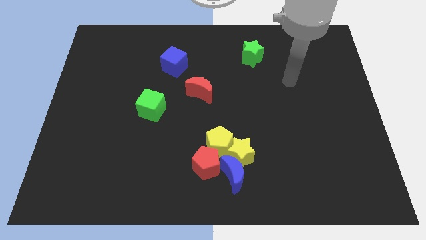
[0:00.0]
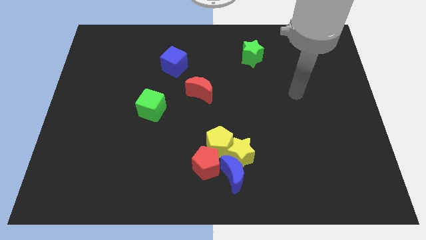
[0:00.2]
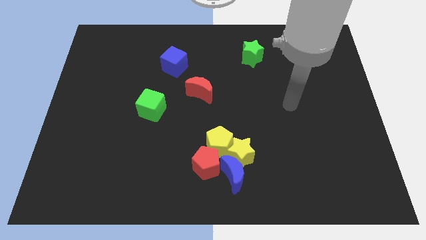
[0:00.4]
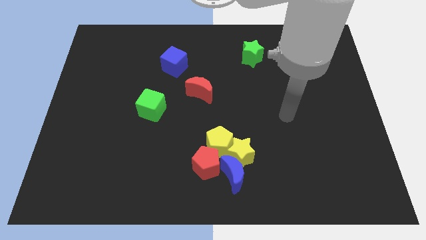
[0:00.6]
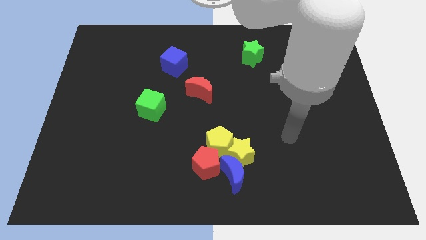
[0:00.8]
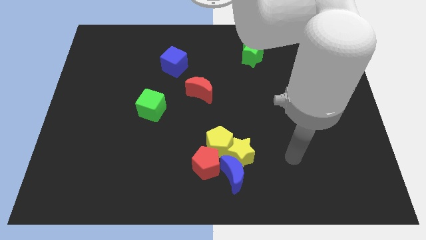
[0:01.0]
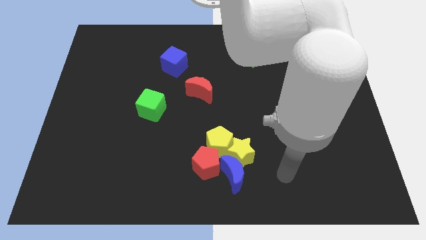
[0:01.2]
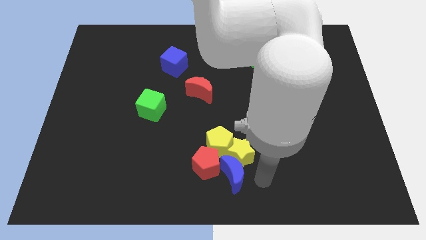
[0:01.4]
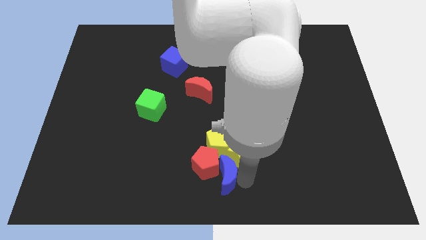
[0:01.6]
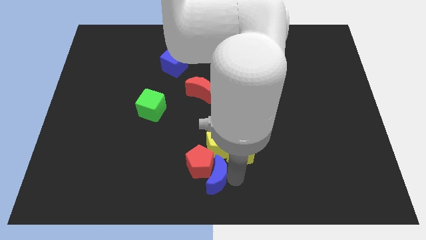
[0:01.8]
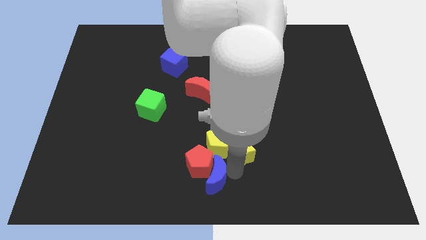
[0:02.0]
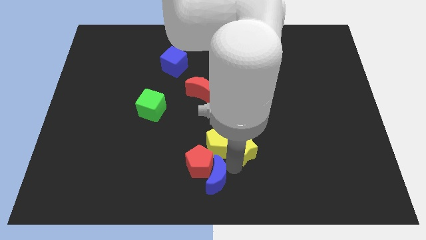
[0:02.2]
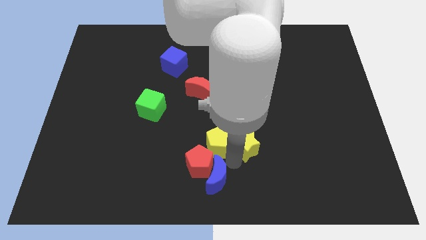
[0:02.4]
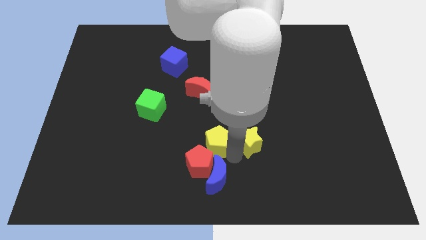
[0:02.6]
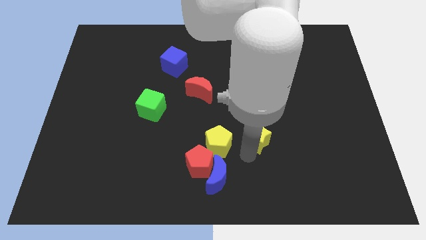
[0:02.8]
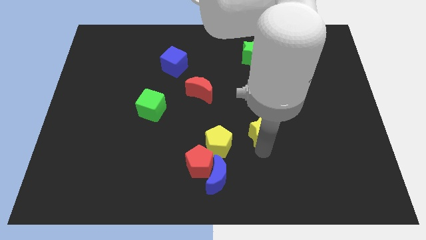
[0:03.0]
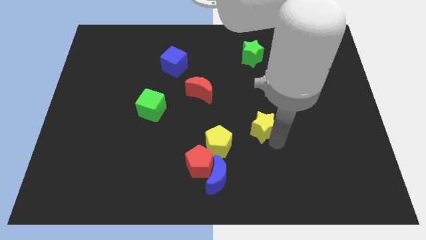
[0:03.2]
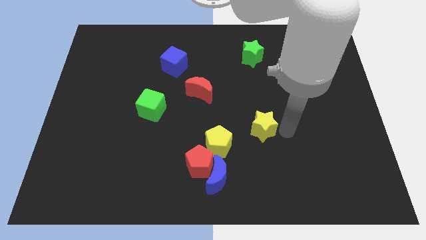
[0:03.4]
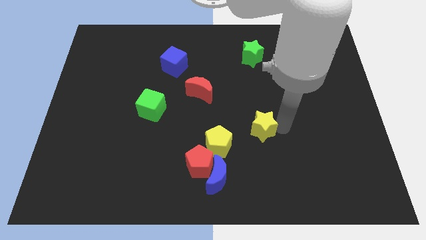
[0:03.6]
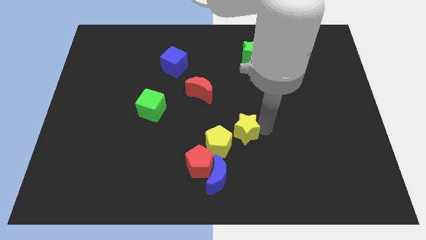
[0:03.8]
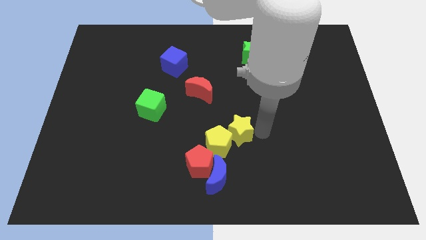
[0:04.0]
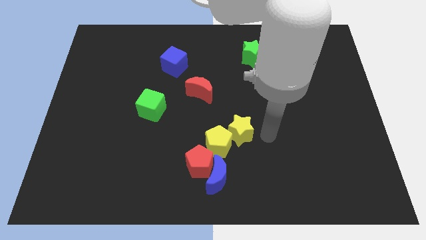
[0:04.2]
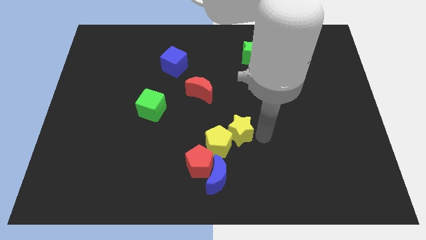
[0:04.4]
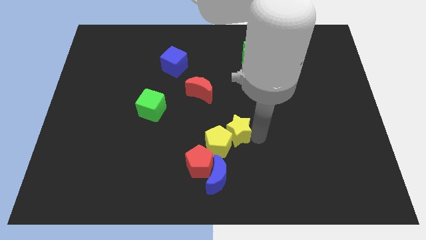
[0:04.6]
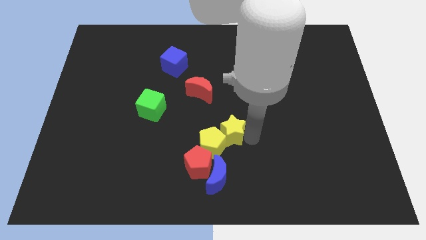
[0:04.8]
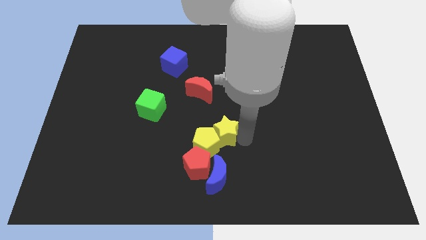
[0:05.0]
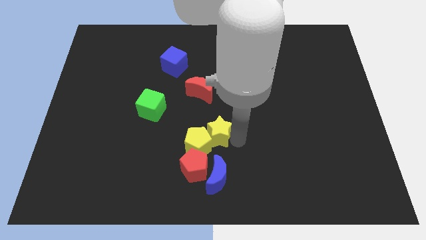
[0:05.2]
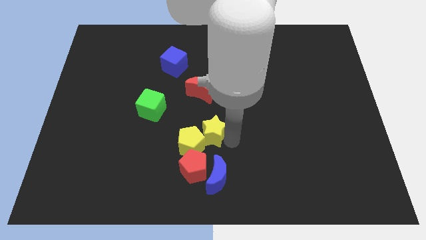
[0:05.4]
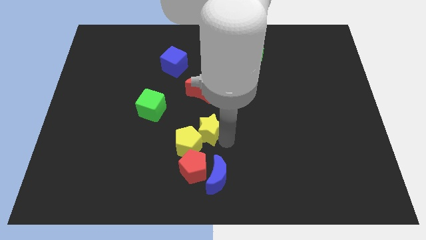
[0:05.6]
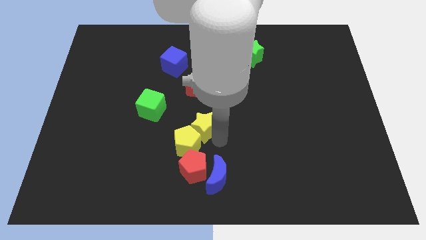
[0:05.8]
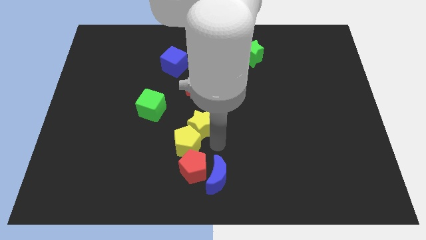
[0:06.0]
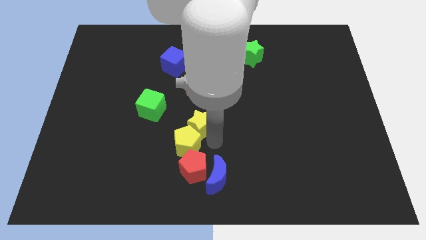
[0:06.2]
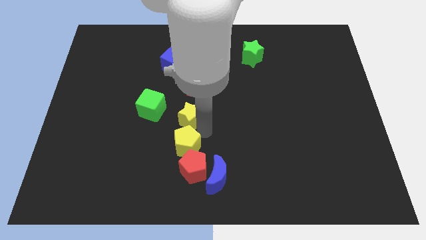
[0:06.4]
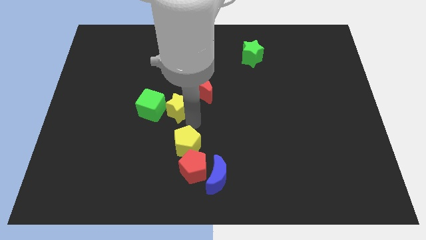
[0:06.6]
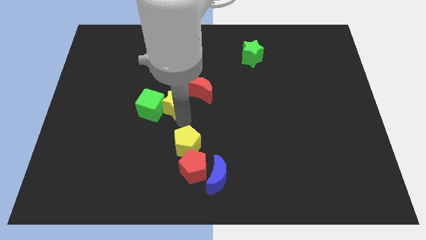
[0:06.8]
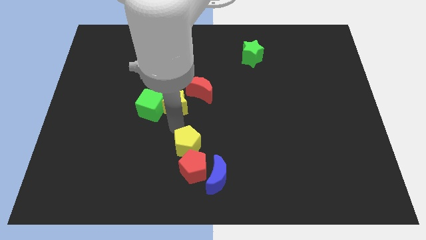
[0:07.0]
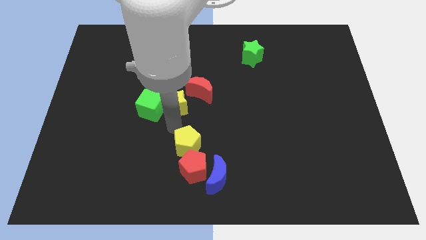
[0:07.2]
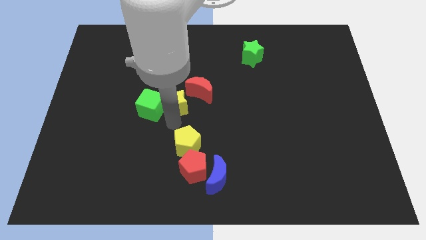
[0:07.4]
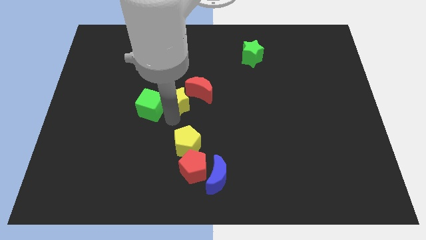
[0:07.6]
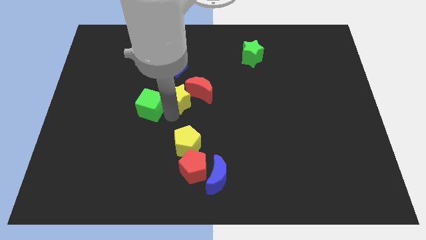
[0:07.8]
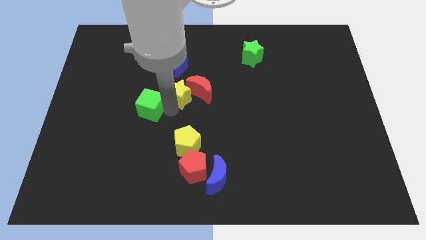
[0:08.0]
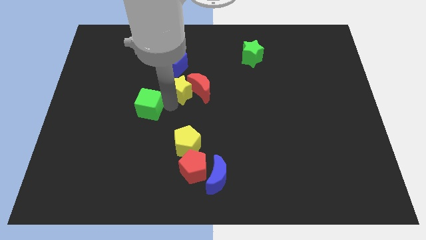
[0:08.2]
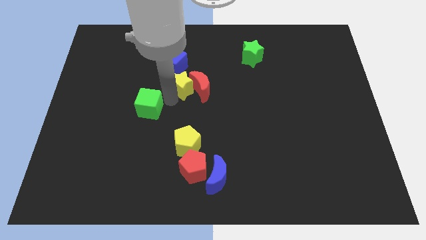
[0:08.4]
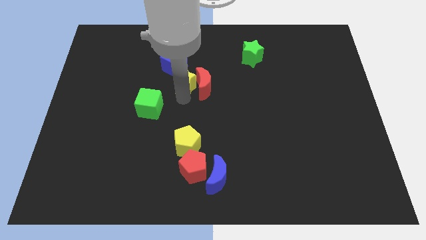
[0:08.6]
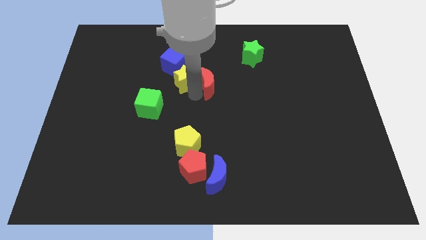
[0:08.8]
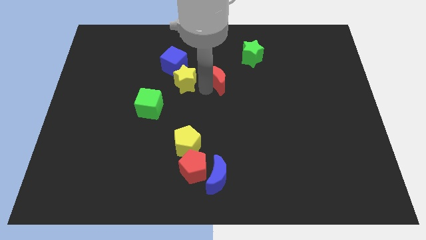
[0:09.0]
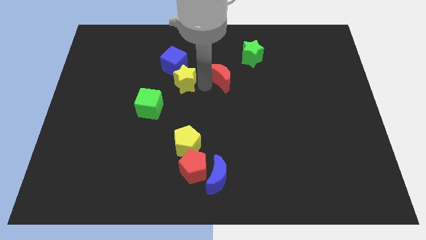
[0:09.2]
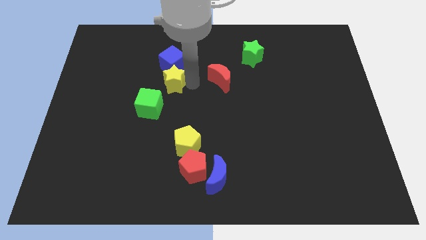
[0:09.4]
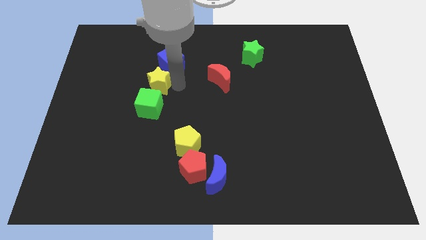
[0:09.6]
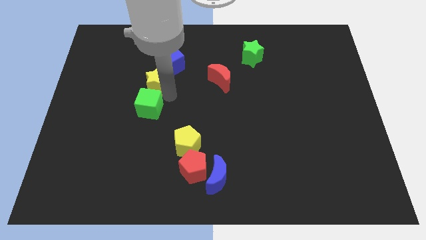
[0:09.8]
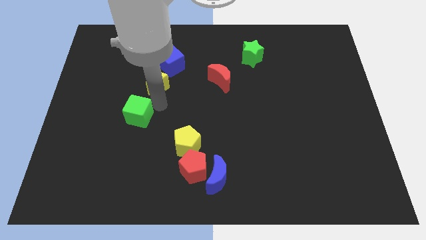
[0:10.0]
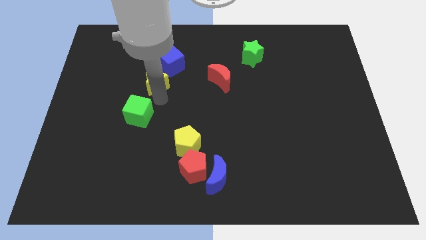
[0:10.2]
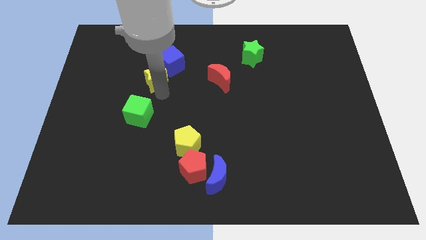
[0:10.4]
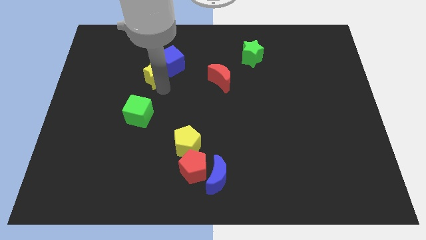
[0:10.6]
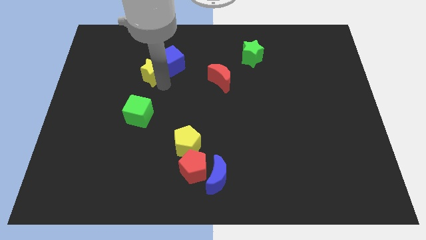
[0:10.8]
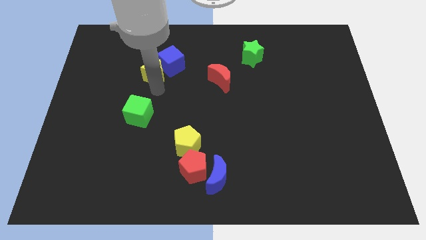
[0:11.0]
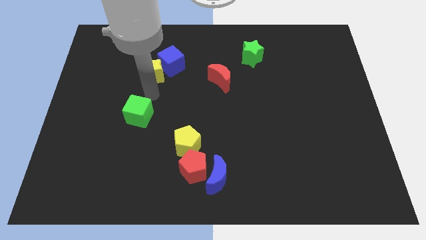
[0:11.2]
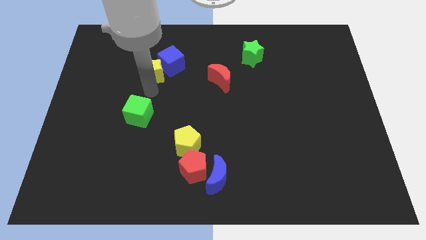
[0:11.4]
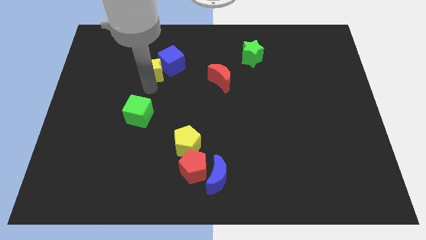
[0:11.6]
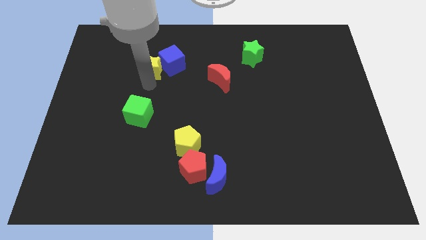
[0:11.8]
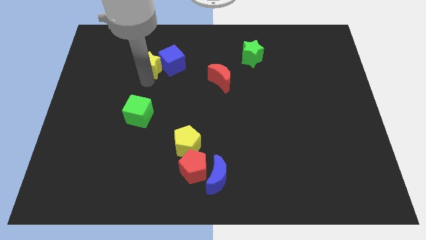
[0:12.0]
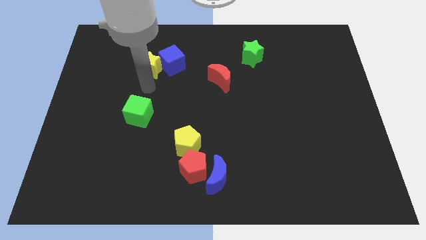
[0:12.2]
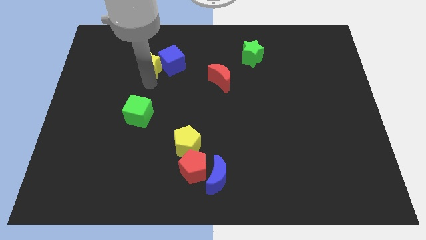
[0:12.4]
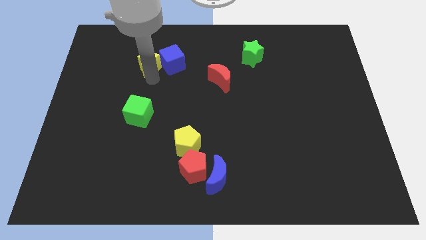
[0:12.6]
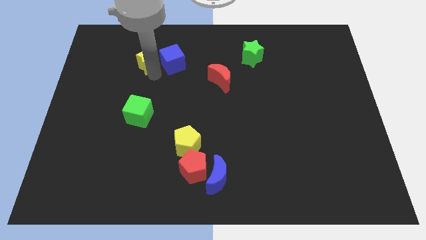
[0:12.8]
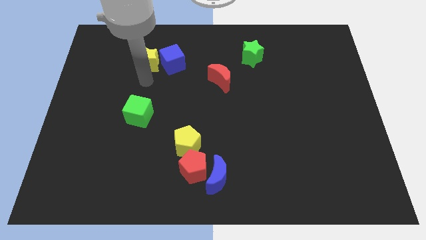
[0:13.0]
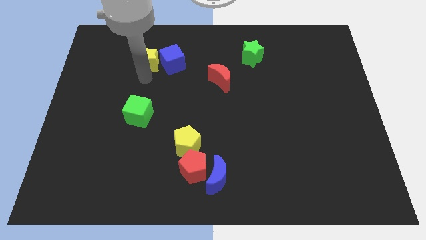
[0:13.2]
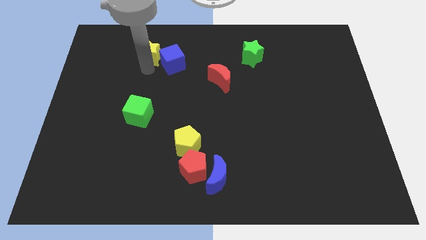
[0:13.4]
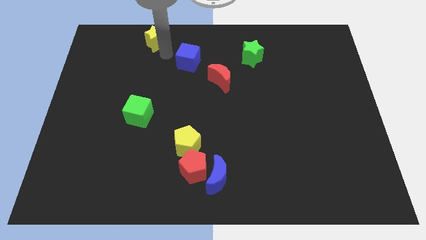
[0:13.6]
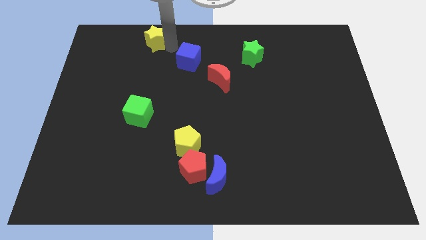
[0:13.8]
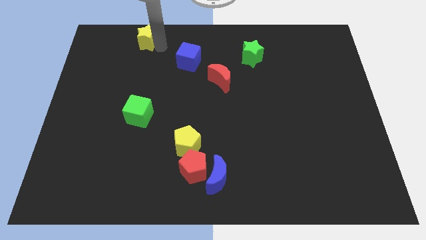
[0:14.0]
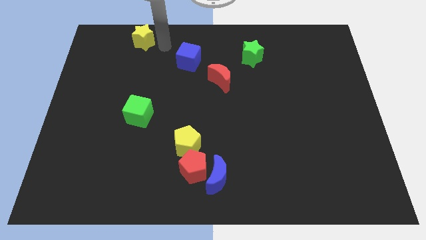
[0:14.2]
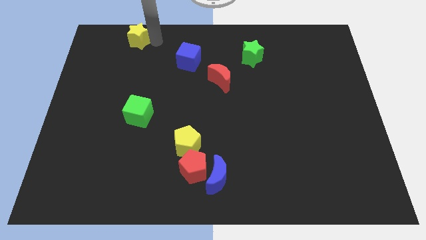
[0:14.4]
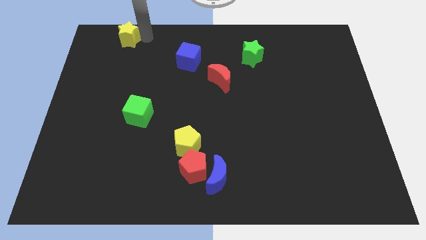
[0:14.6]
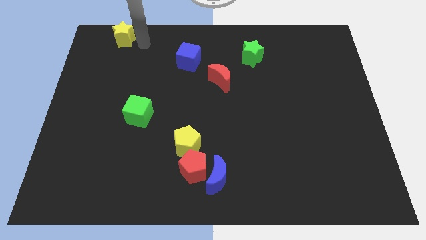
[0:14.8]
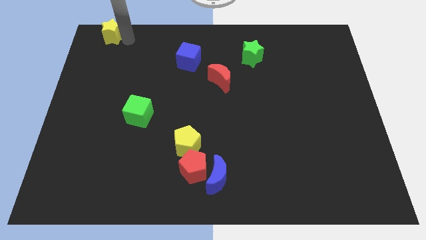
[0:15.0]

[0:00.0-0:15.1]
put the yellow star to the top left of the board

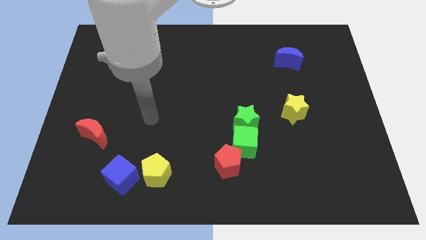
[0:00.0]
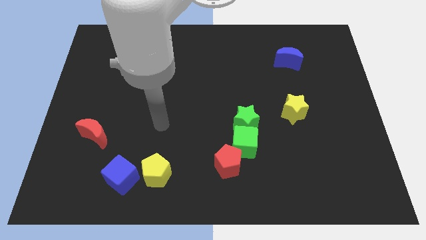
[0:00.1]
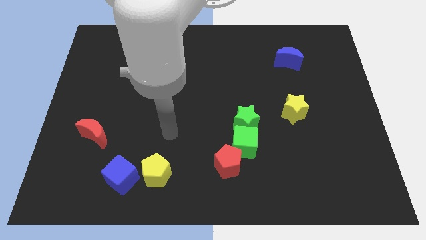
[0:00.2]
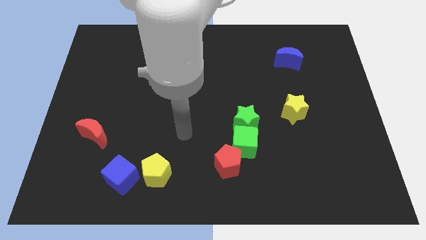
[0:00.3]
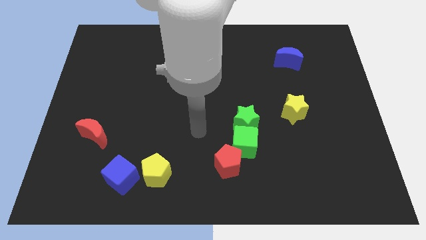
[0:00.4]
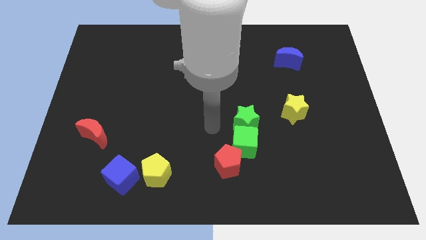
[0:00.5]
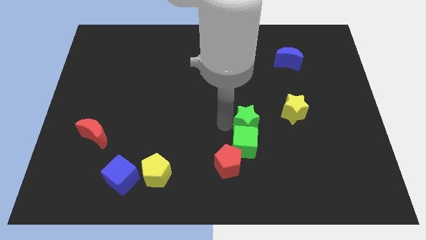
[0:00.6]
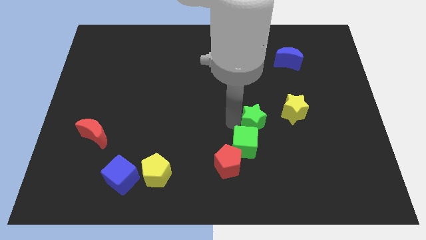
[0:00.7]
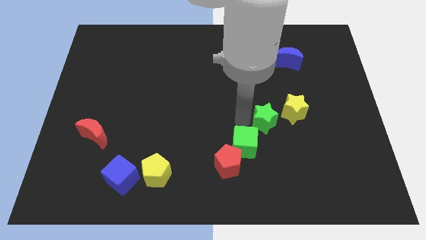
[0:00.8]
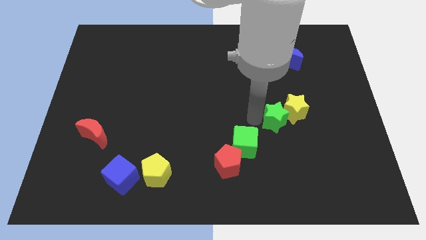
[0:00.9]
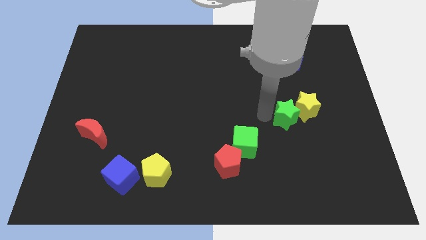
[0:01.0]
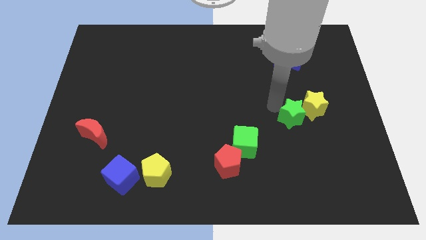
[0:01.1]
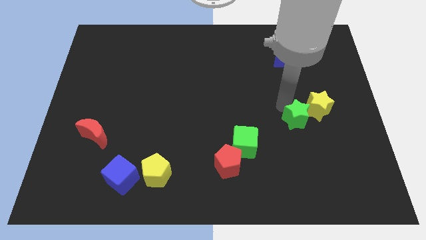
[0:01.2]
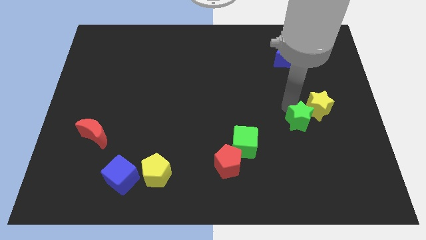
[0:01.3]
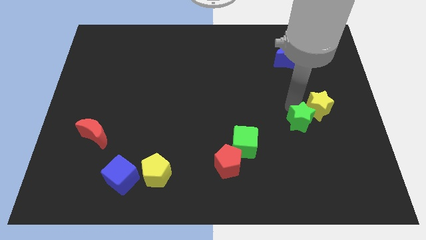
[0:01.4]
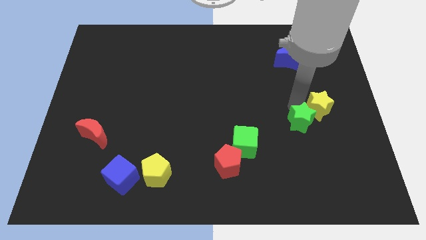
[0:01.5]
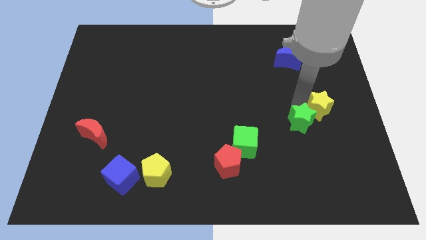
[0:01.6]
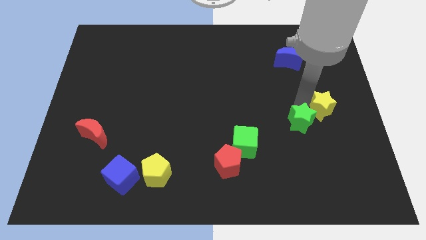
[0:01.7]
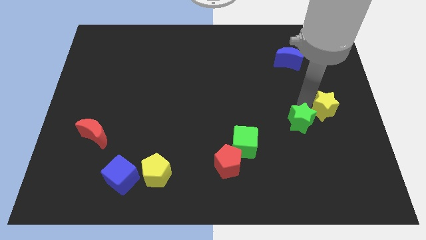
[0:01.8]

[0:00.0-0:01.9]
push the yellow star to the right side of the board
